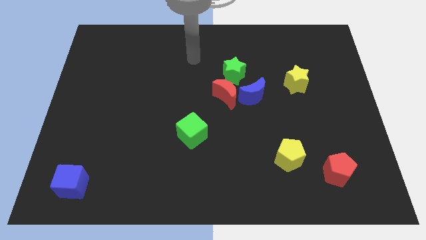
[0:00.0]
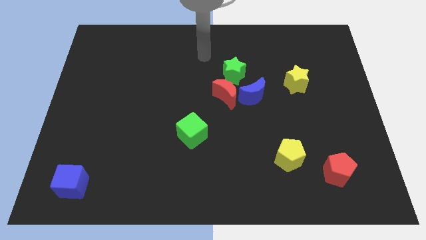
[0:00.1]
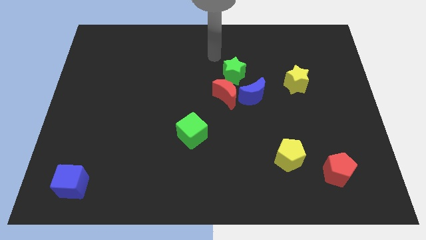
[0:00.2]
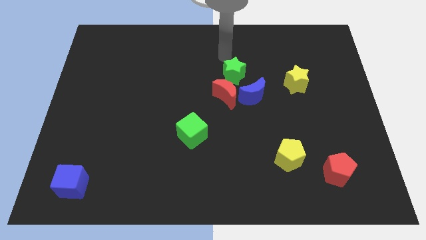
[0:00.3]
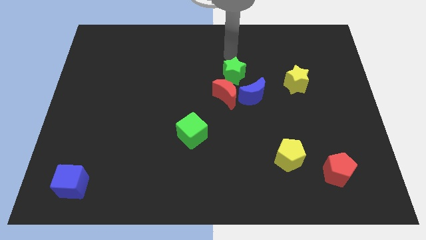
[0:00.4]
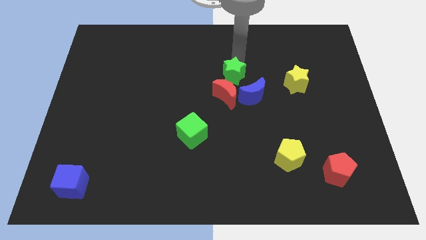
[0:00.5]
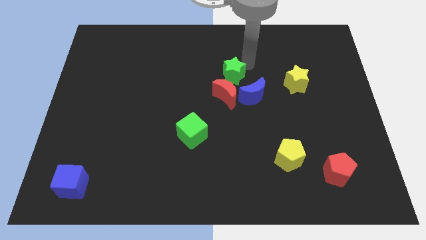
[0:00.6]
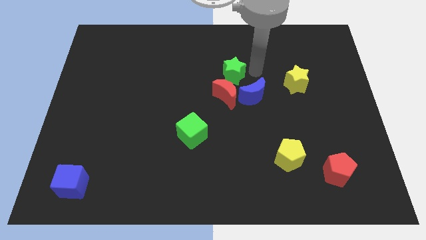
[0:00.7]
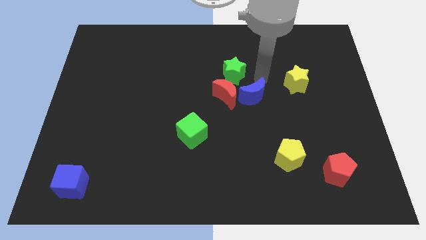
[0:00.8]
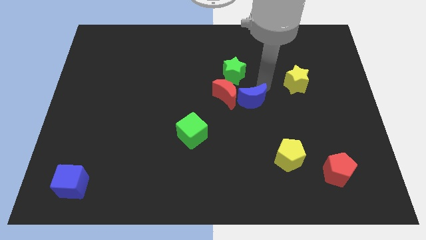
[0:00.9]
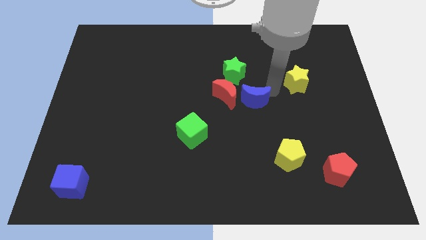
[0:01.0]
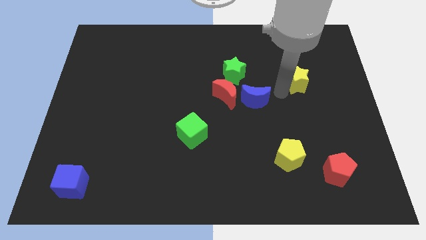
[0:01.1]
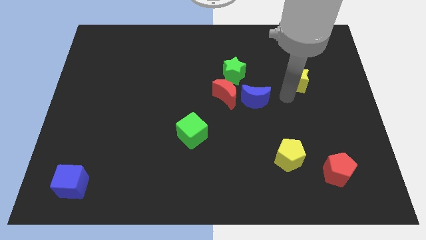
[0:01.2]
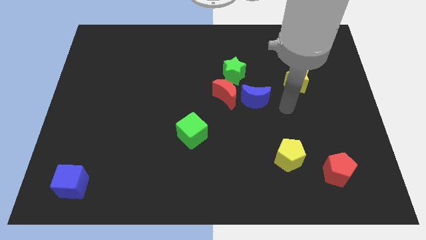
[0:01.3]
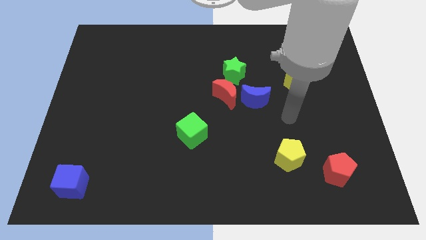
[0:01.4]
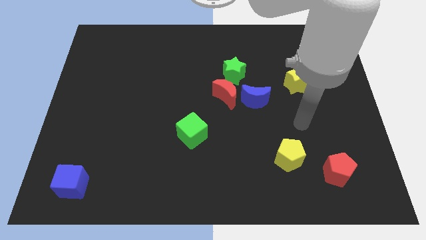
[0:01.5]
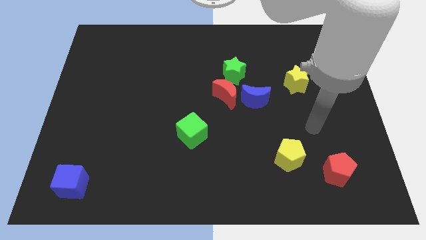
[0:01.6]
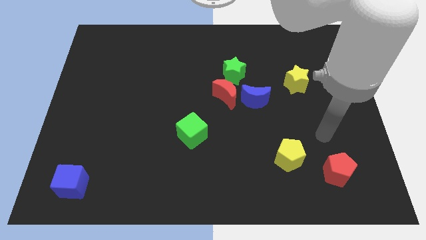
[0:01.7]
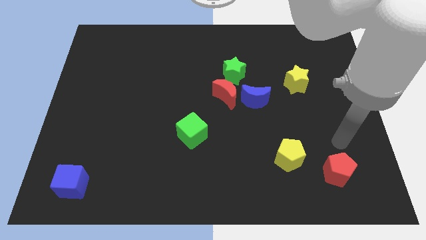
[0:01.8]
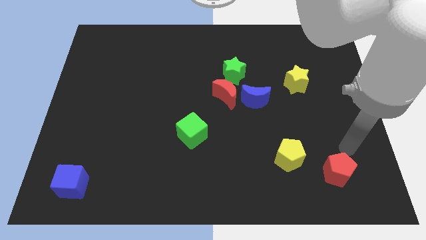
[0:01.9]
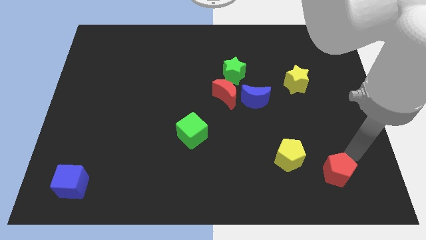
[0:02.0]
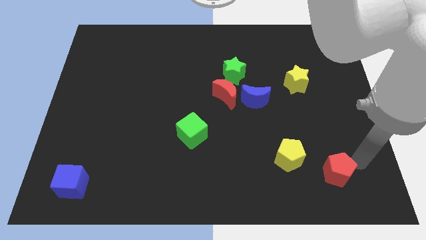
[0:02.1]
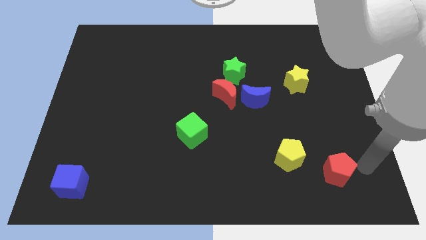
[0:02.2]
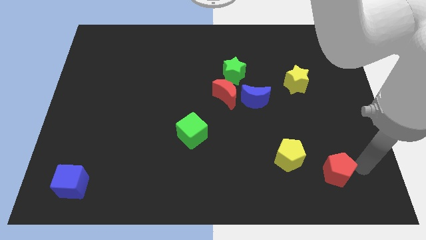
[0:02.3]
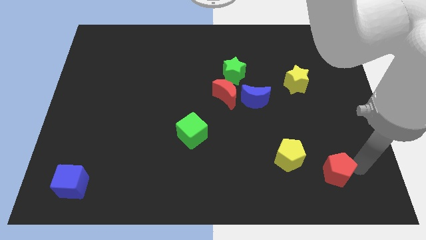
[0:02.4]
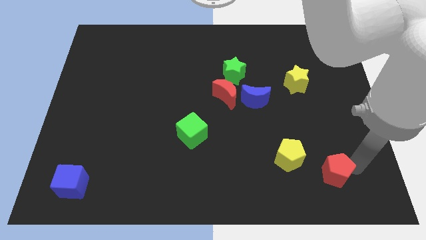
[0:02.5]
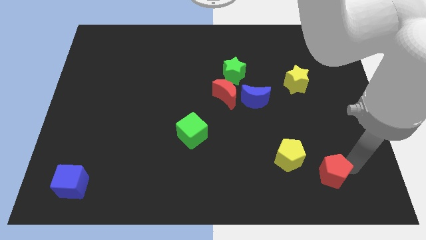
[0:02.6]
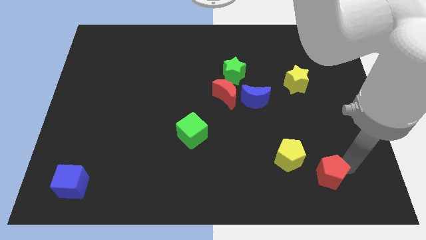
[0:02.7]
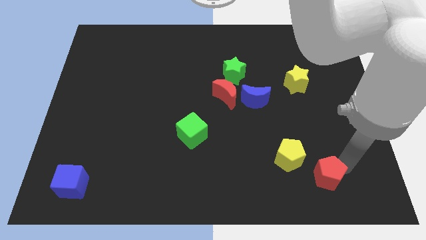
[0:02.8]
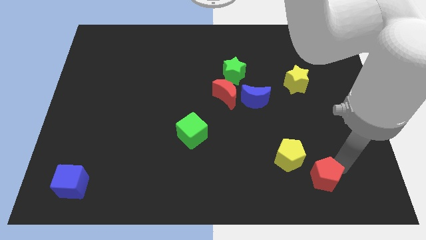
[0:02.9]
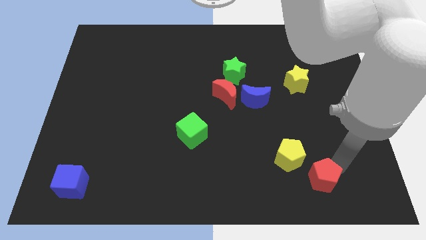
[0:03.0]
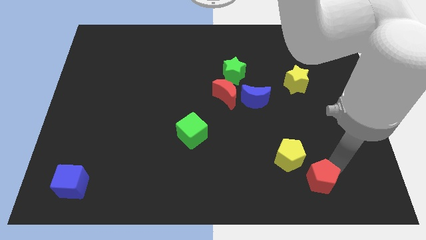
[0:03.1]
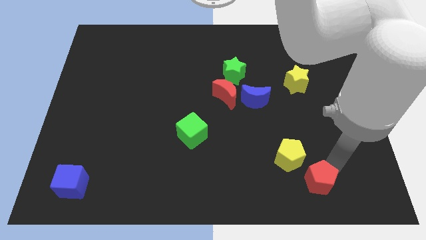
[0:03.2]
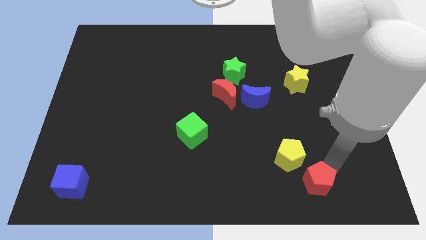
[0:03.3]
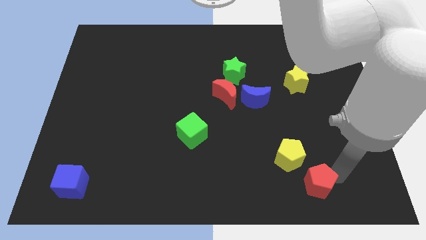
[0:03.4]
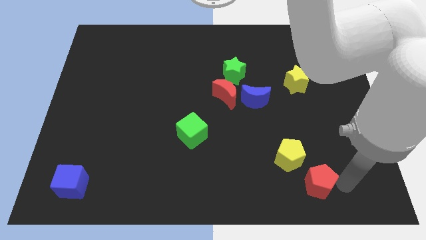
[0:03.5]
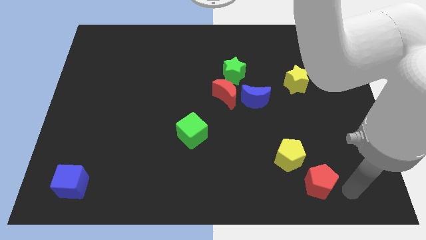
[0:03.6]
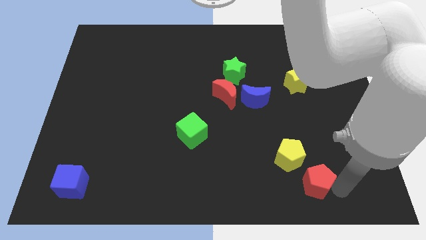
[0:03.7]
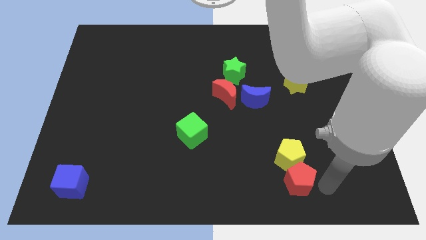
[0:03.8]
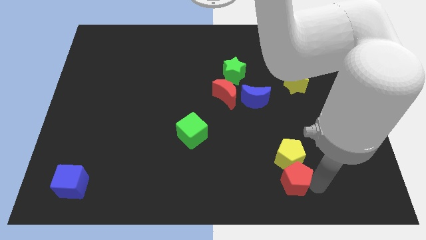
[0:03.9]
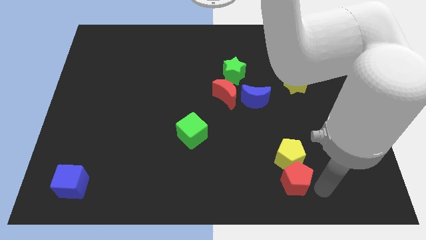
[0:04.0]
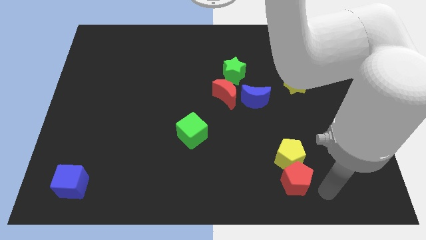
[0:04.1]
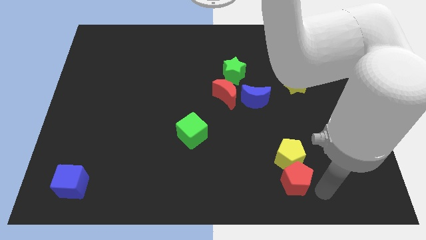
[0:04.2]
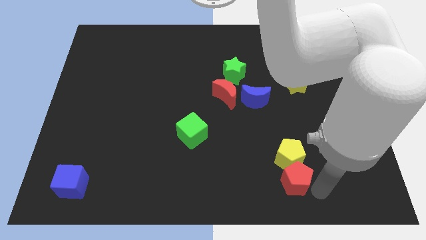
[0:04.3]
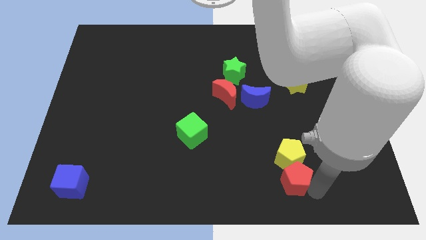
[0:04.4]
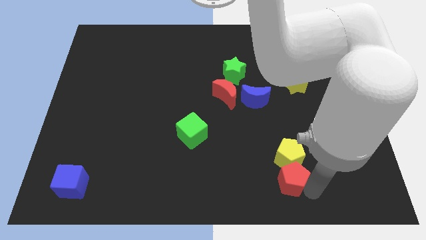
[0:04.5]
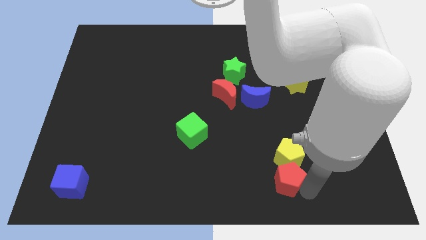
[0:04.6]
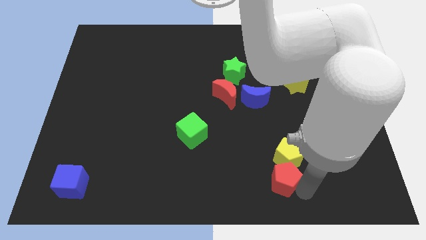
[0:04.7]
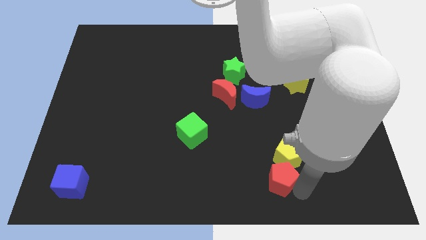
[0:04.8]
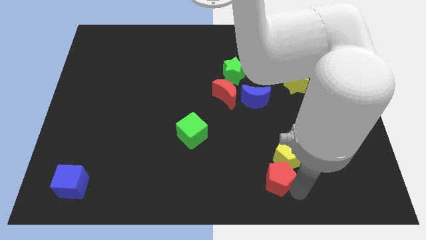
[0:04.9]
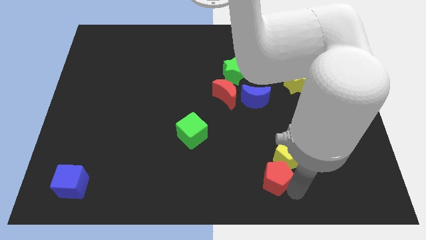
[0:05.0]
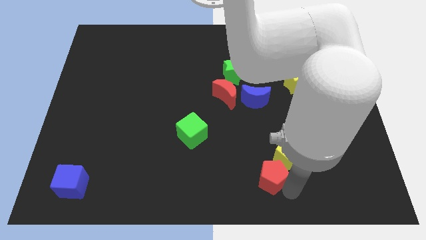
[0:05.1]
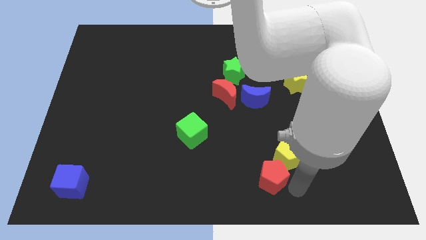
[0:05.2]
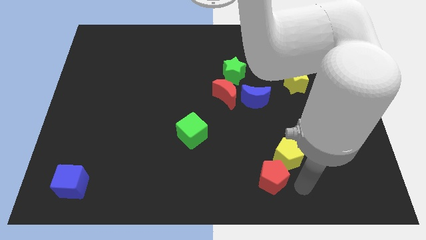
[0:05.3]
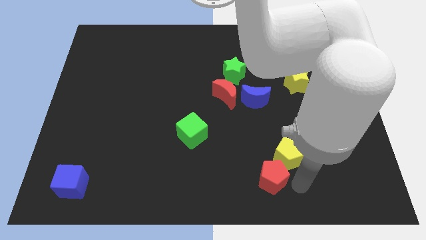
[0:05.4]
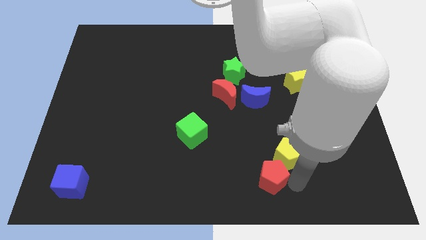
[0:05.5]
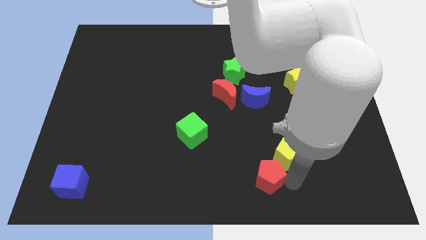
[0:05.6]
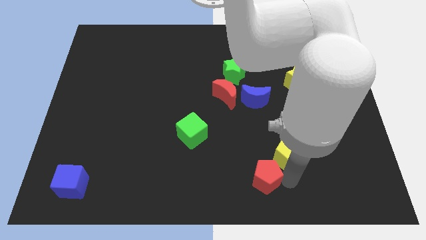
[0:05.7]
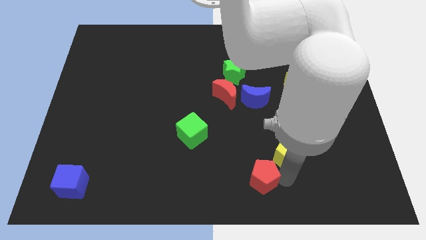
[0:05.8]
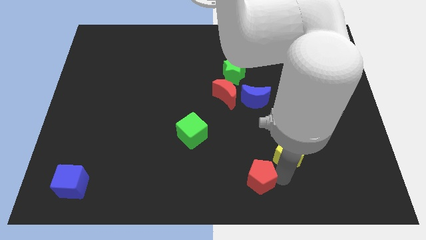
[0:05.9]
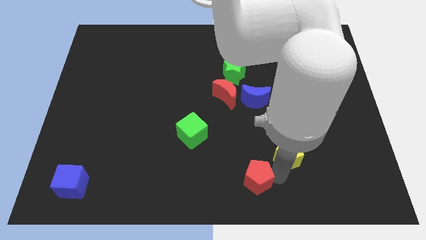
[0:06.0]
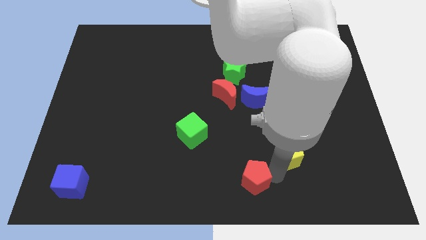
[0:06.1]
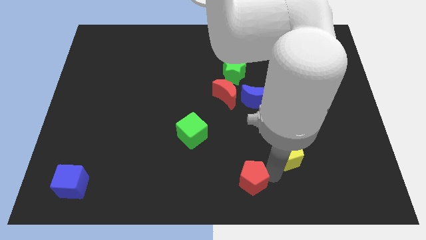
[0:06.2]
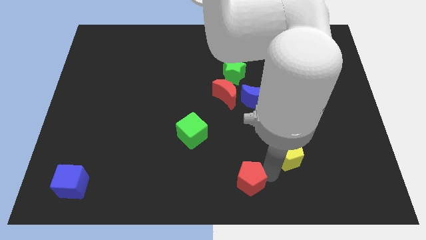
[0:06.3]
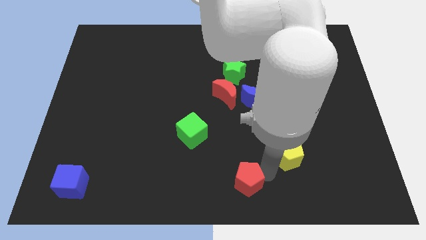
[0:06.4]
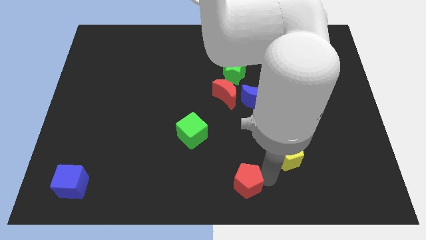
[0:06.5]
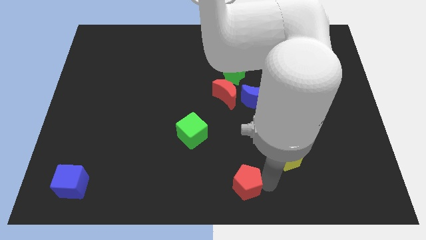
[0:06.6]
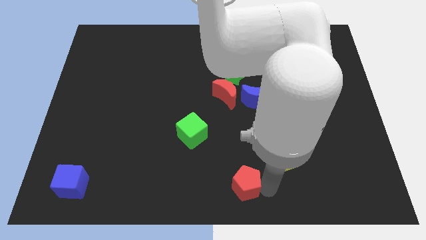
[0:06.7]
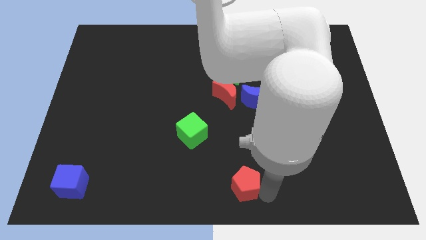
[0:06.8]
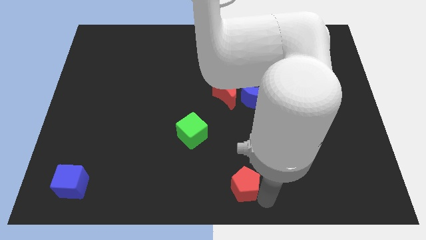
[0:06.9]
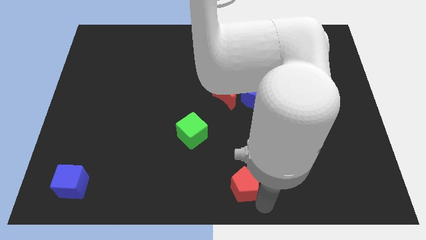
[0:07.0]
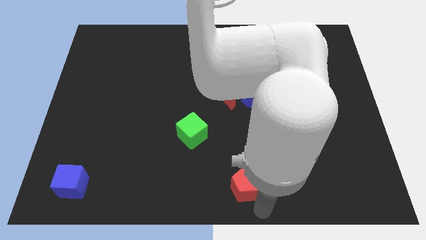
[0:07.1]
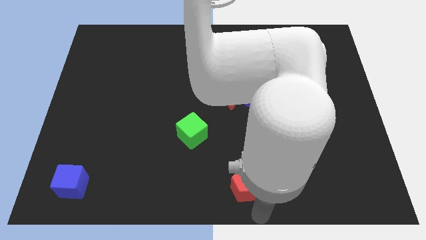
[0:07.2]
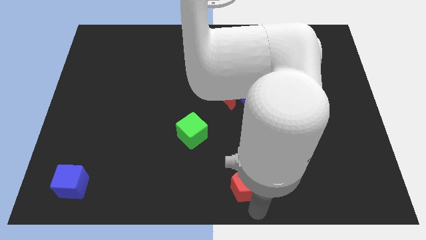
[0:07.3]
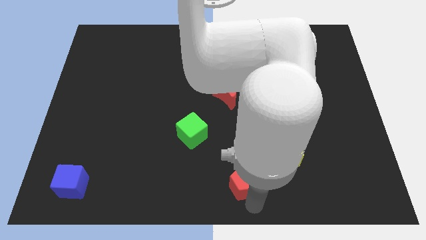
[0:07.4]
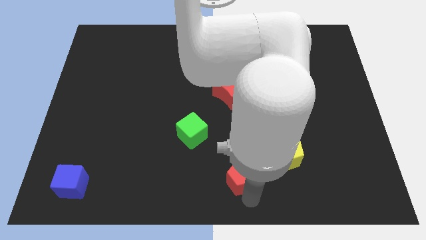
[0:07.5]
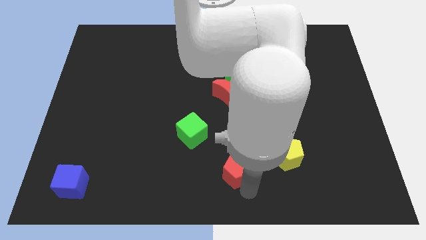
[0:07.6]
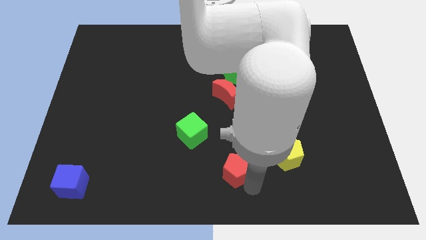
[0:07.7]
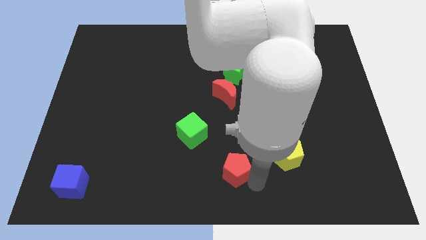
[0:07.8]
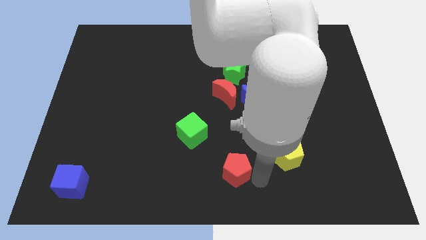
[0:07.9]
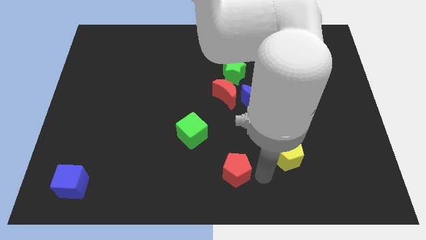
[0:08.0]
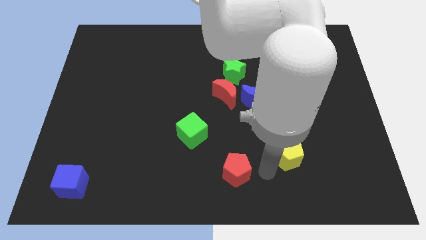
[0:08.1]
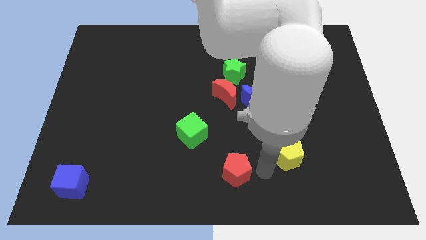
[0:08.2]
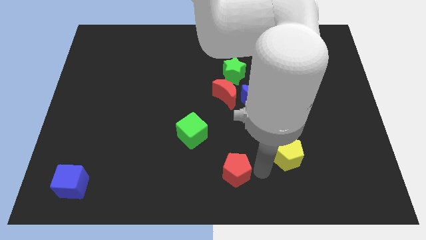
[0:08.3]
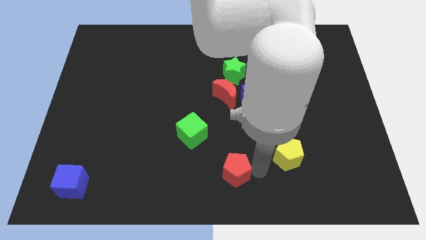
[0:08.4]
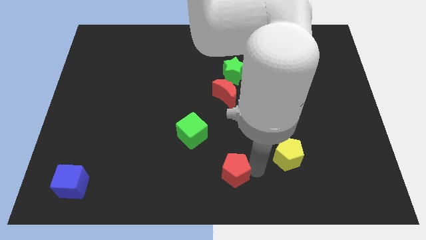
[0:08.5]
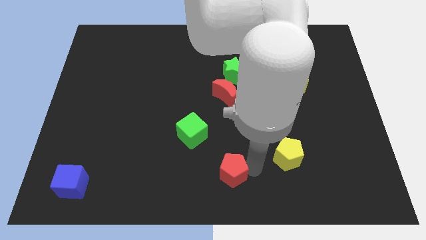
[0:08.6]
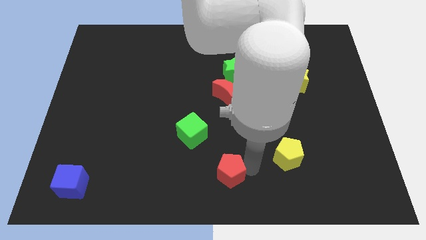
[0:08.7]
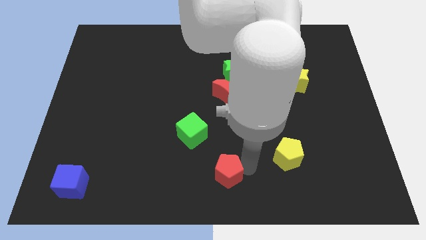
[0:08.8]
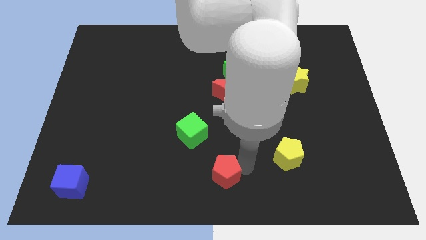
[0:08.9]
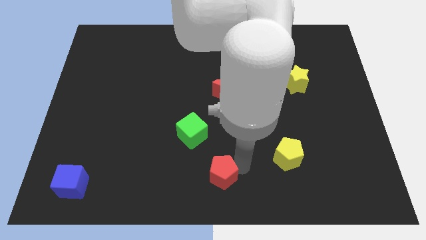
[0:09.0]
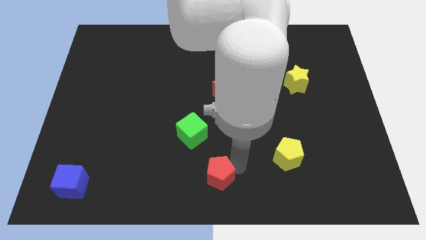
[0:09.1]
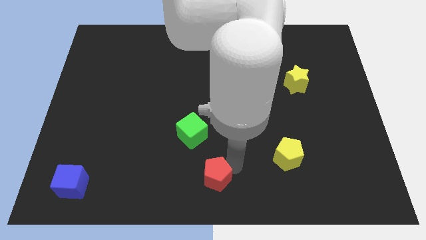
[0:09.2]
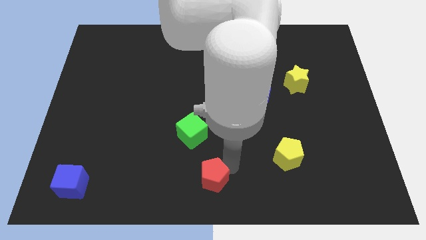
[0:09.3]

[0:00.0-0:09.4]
push the red pentagon below the green cube
